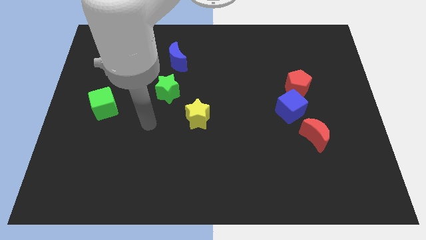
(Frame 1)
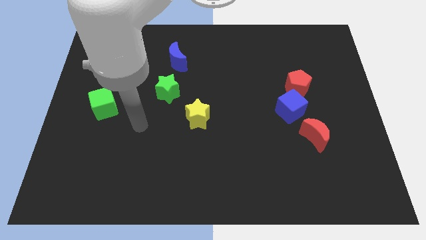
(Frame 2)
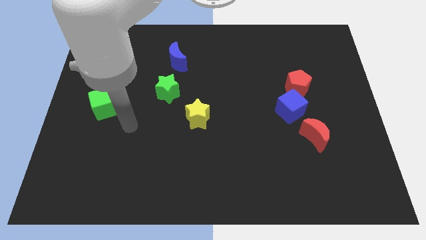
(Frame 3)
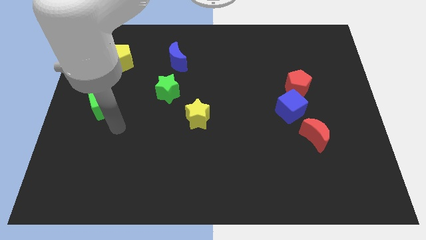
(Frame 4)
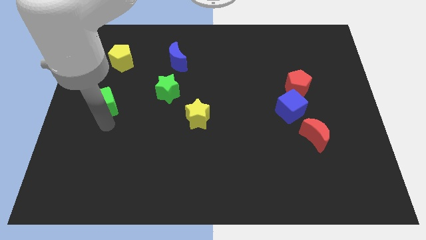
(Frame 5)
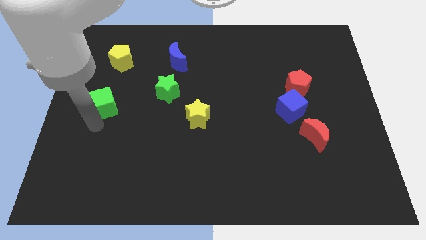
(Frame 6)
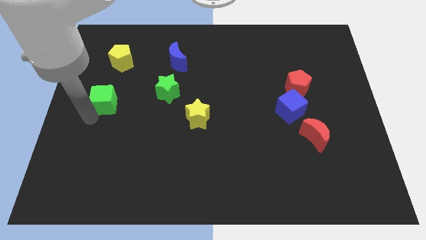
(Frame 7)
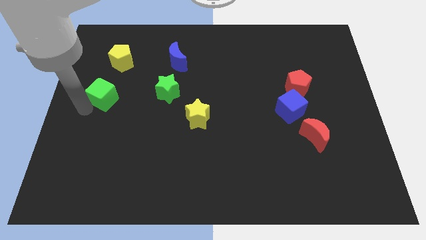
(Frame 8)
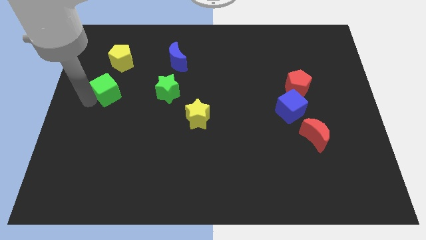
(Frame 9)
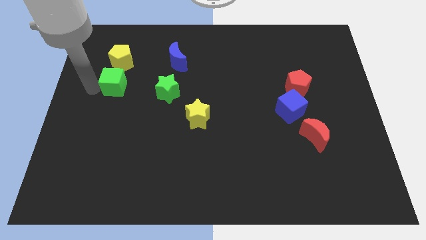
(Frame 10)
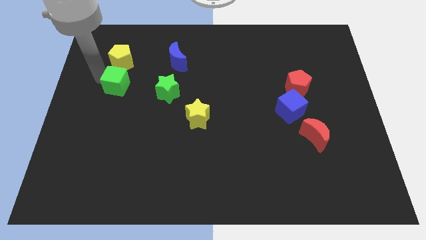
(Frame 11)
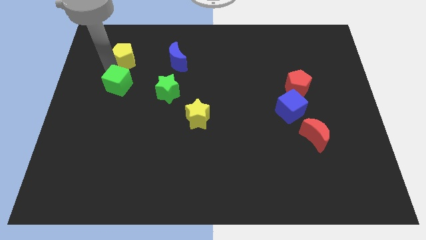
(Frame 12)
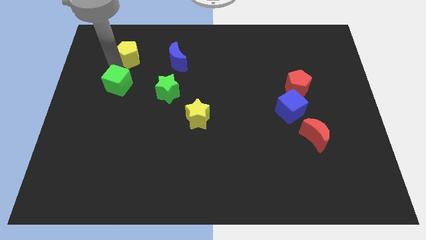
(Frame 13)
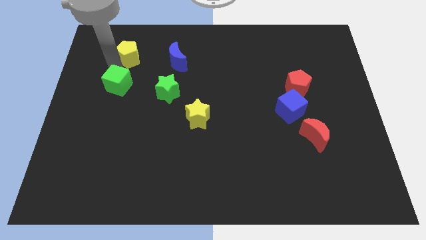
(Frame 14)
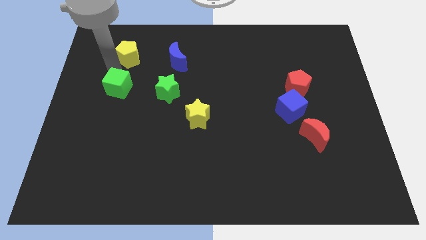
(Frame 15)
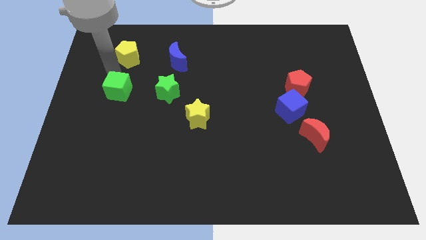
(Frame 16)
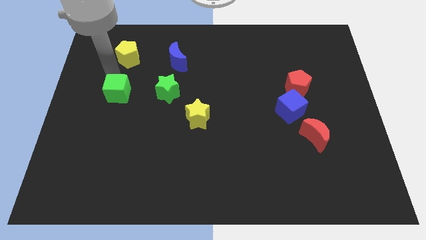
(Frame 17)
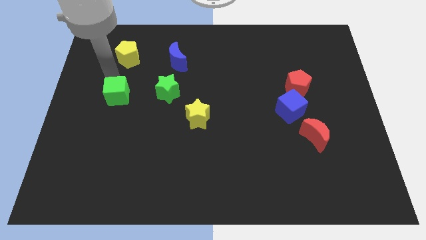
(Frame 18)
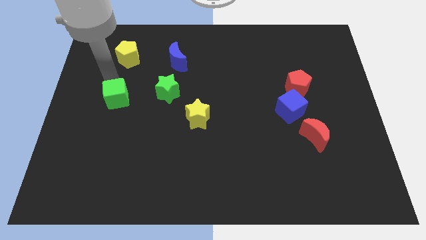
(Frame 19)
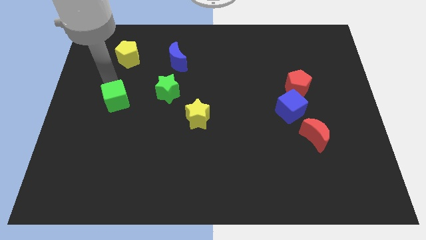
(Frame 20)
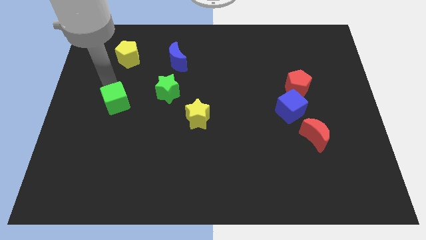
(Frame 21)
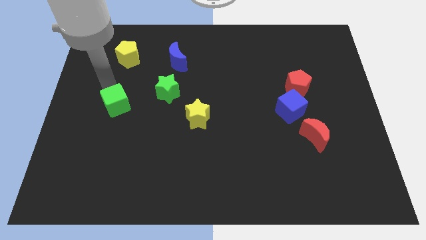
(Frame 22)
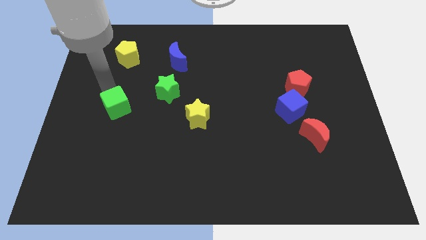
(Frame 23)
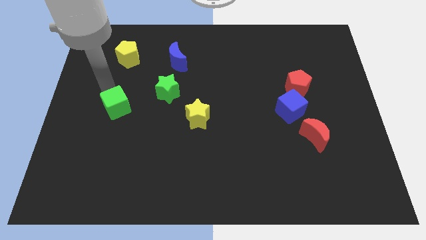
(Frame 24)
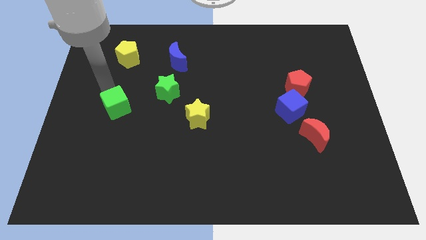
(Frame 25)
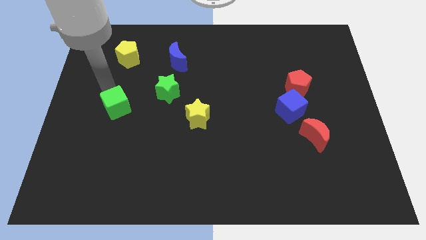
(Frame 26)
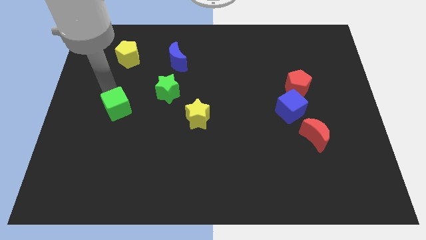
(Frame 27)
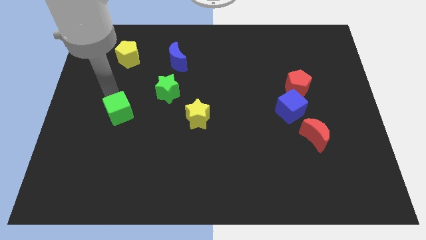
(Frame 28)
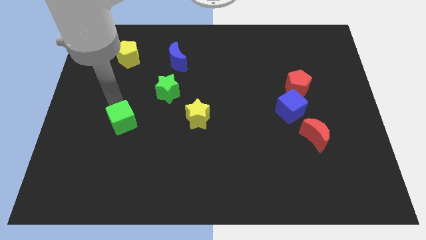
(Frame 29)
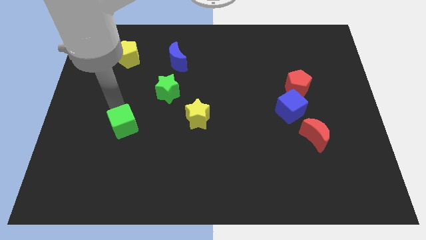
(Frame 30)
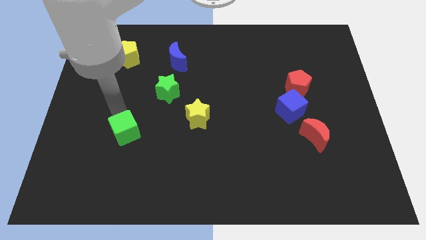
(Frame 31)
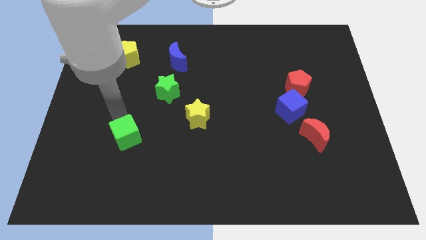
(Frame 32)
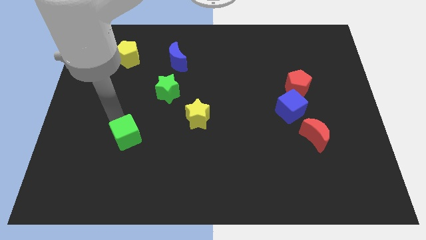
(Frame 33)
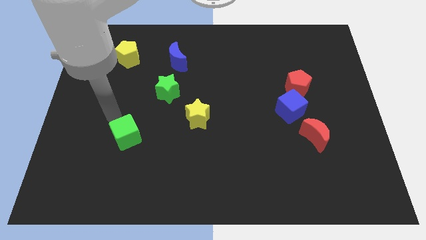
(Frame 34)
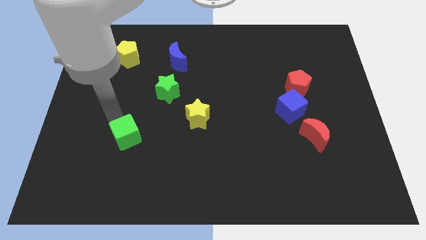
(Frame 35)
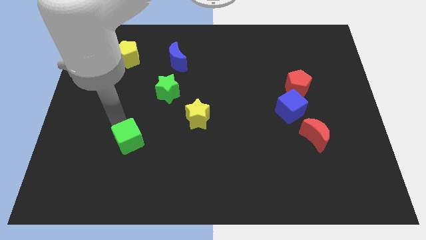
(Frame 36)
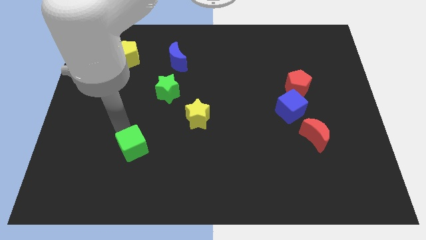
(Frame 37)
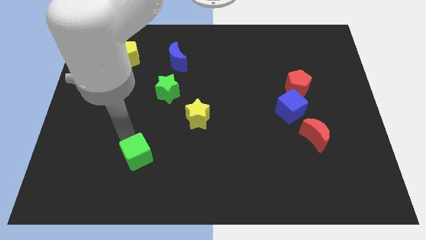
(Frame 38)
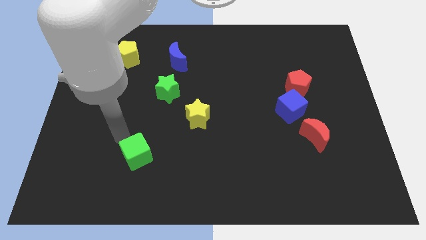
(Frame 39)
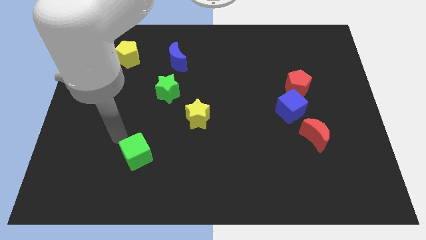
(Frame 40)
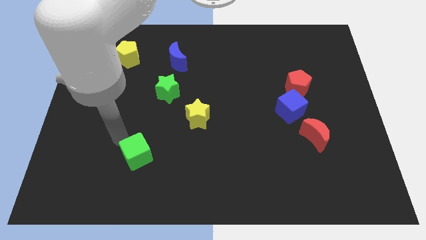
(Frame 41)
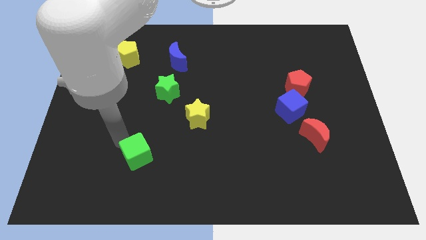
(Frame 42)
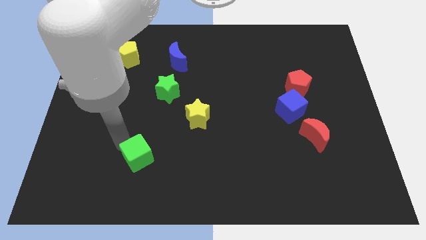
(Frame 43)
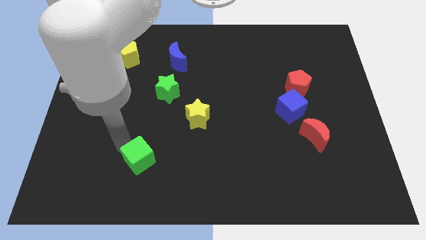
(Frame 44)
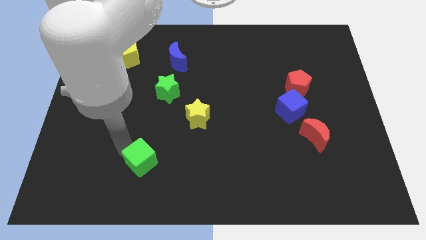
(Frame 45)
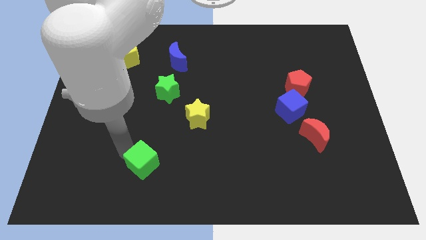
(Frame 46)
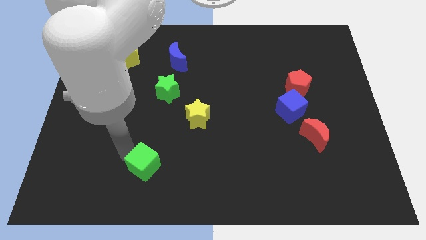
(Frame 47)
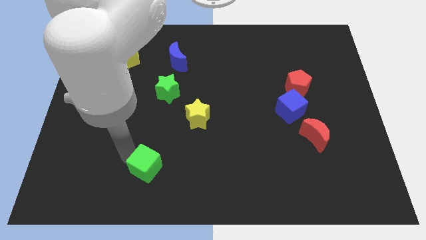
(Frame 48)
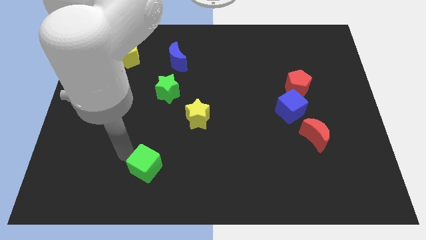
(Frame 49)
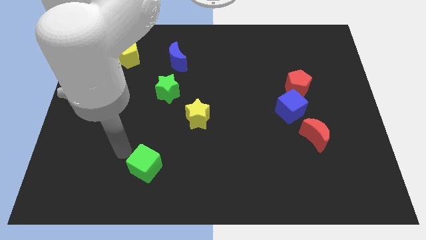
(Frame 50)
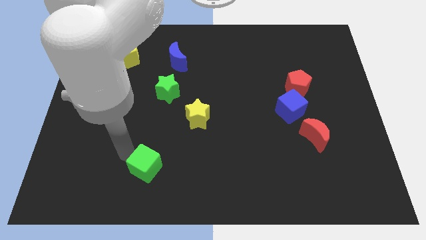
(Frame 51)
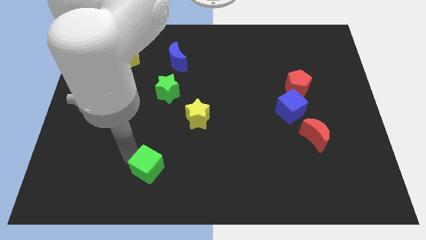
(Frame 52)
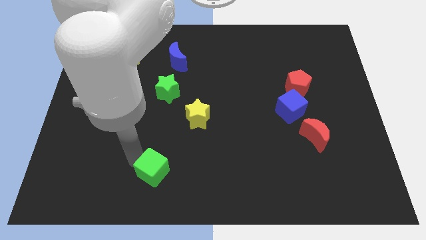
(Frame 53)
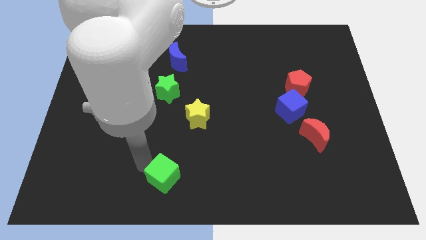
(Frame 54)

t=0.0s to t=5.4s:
slide the green cube to the bottom
